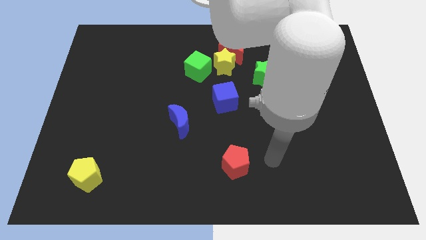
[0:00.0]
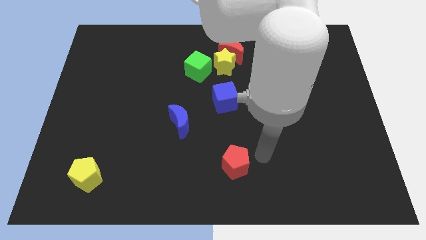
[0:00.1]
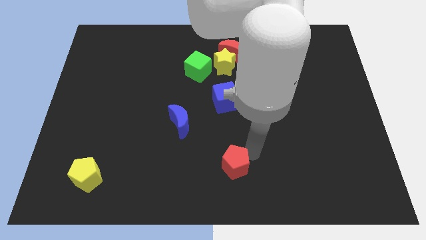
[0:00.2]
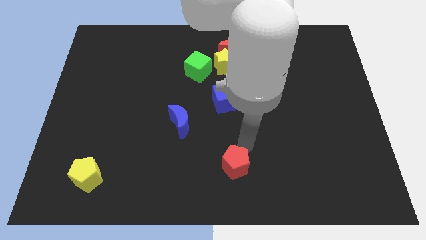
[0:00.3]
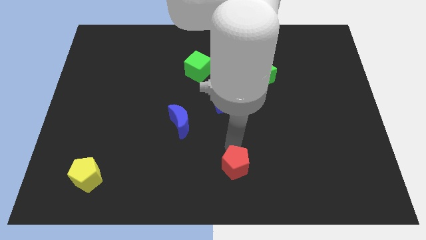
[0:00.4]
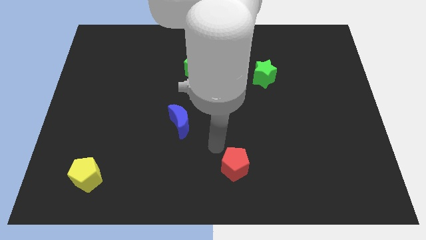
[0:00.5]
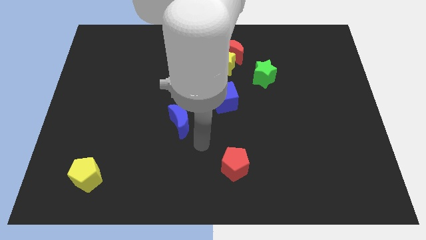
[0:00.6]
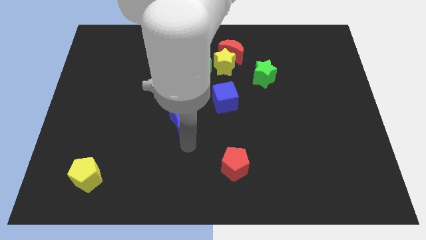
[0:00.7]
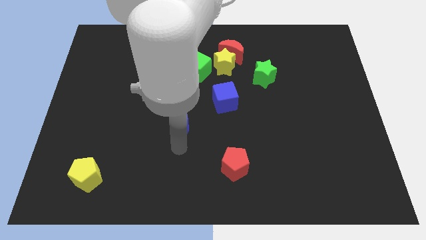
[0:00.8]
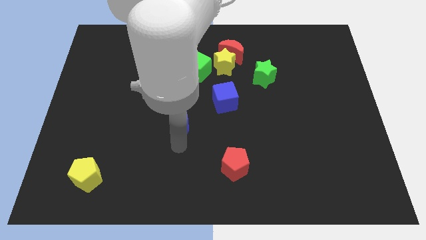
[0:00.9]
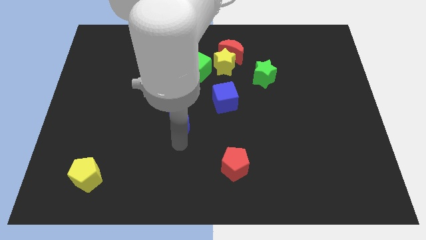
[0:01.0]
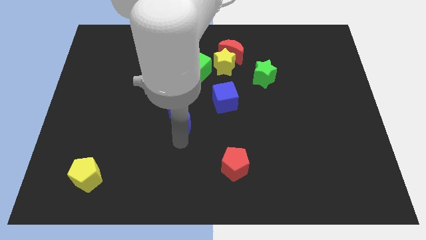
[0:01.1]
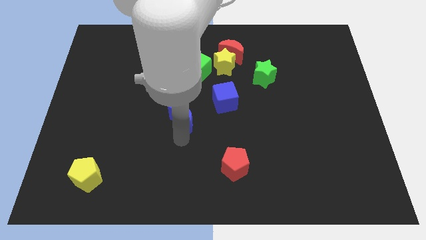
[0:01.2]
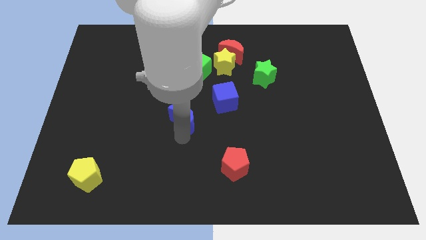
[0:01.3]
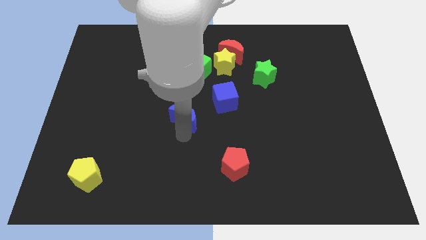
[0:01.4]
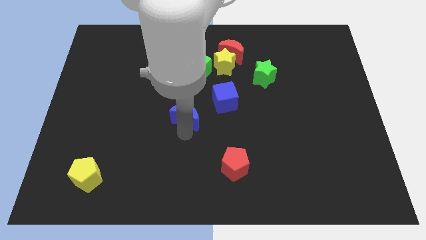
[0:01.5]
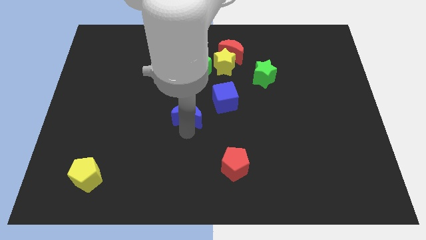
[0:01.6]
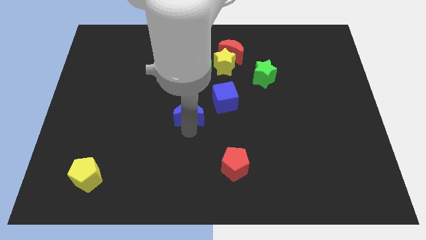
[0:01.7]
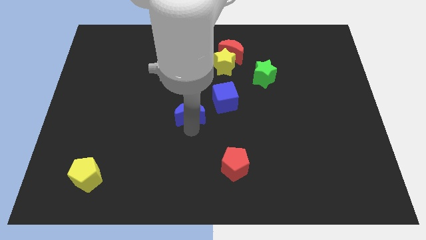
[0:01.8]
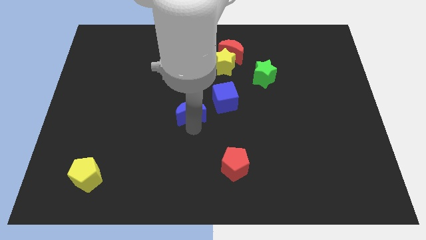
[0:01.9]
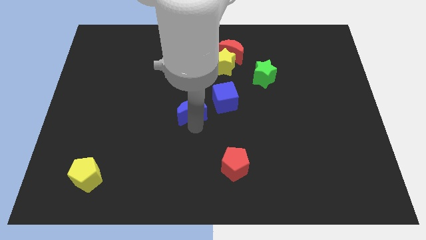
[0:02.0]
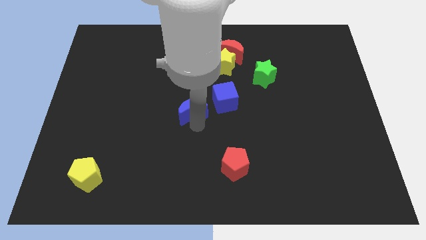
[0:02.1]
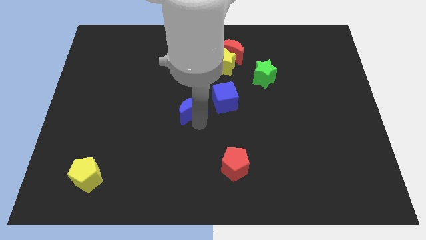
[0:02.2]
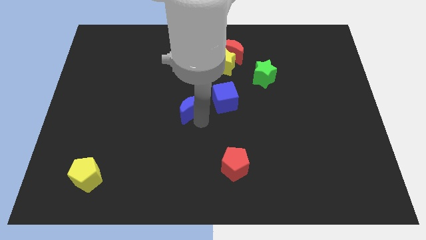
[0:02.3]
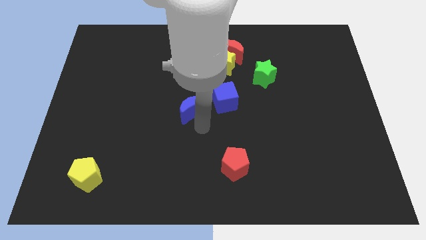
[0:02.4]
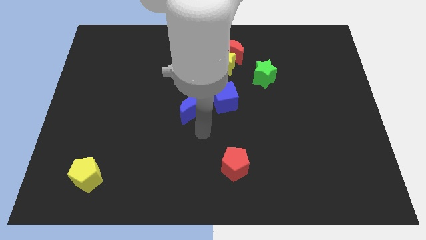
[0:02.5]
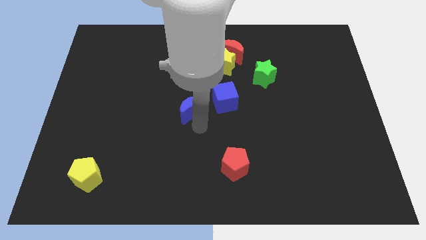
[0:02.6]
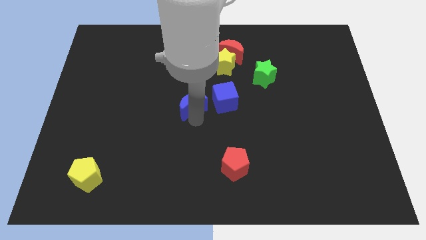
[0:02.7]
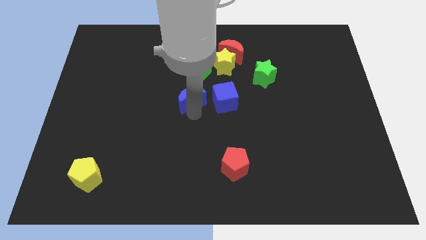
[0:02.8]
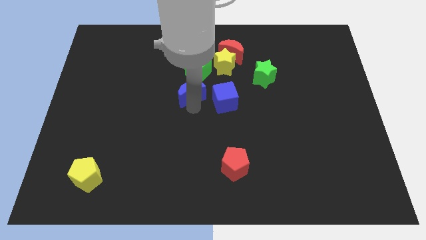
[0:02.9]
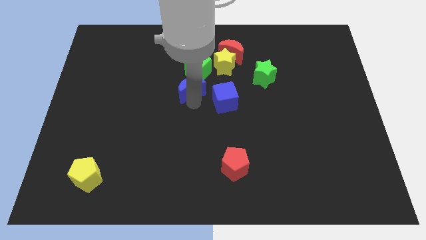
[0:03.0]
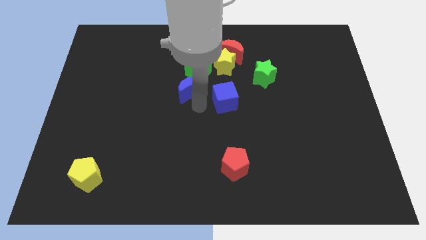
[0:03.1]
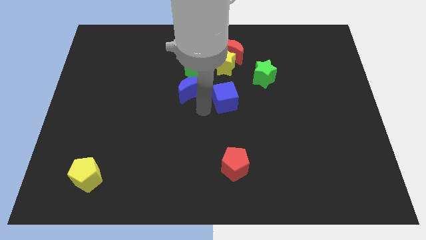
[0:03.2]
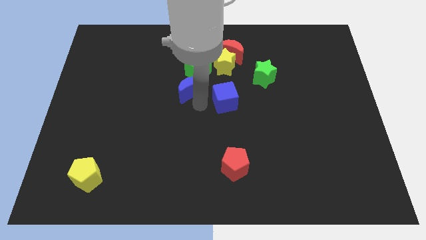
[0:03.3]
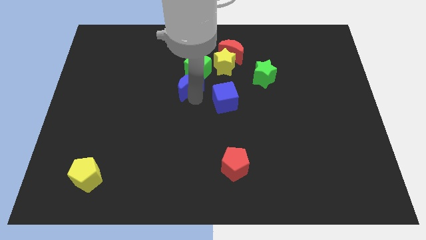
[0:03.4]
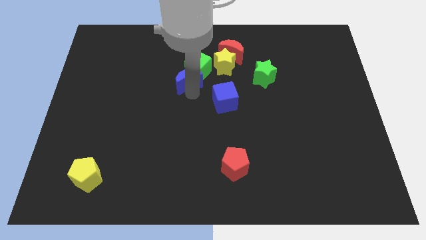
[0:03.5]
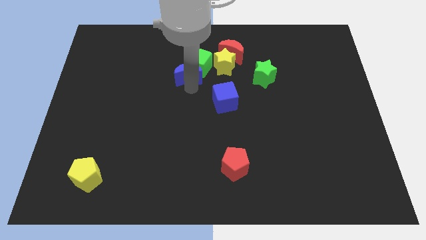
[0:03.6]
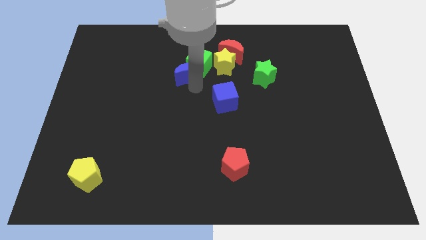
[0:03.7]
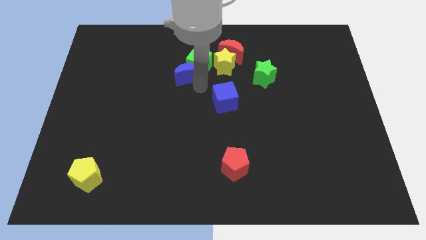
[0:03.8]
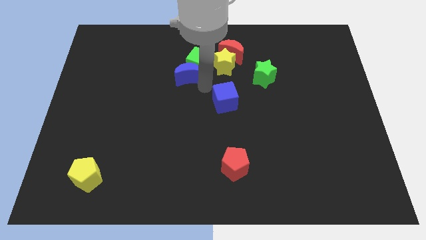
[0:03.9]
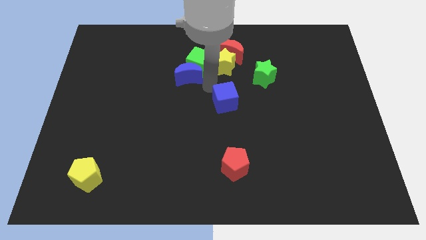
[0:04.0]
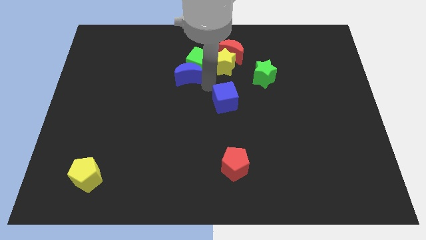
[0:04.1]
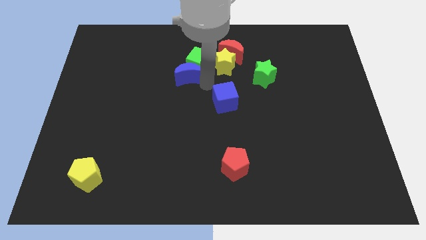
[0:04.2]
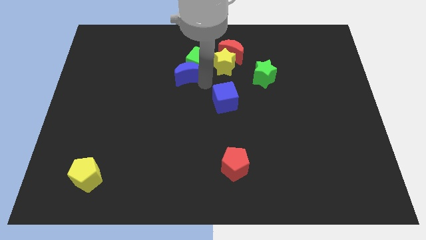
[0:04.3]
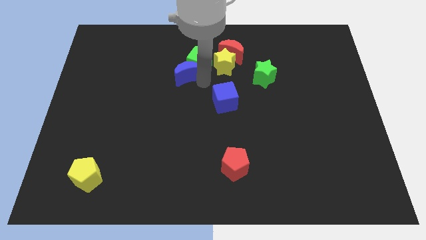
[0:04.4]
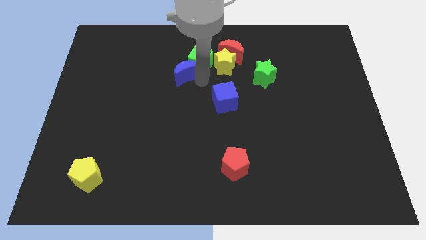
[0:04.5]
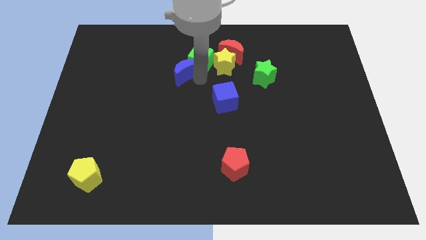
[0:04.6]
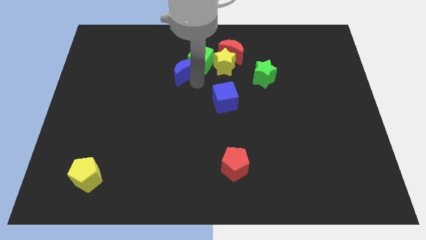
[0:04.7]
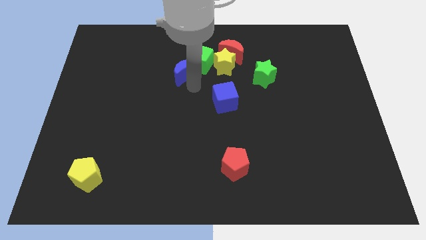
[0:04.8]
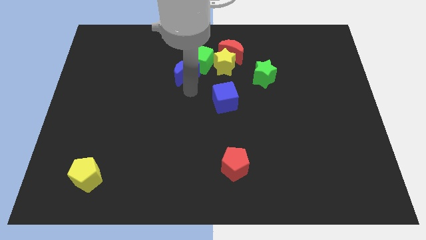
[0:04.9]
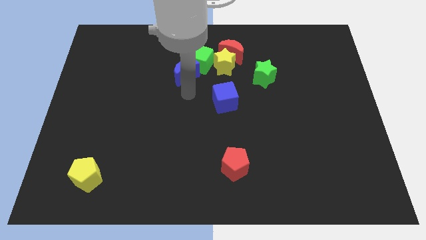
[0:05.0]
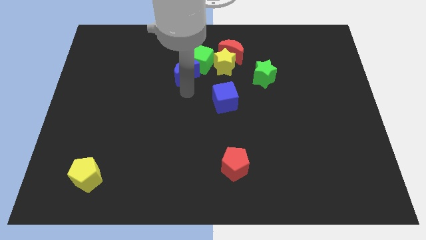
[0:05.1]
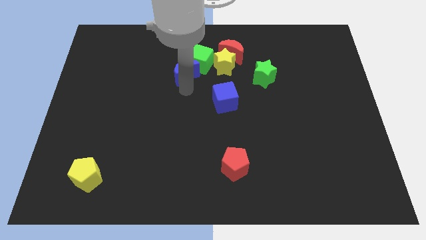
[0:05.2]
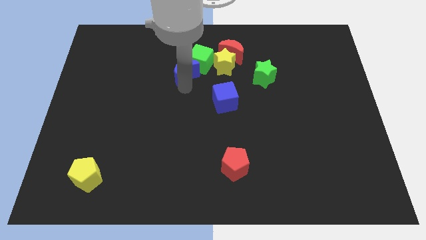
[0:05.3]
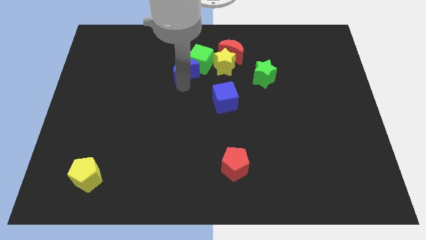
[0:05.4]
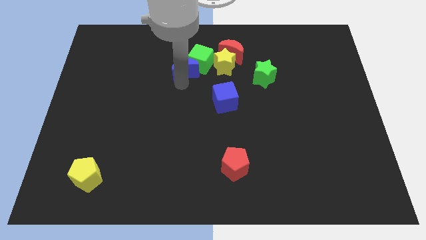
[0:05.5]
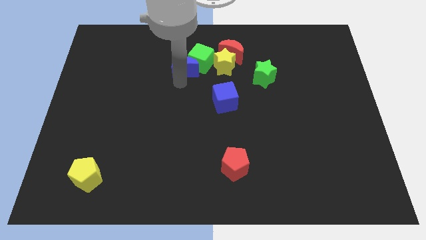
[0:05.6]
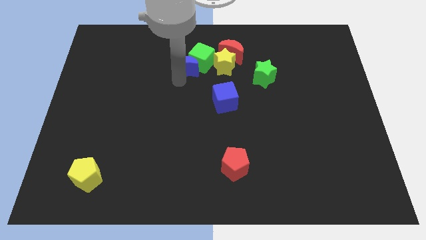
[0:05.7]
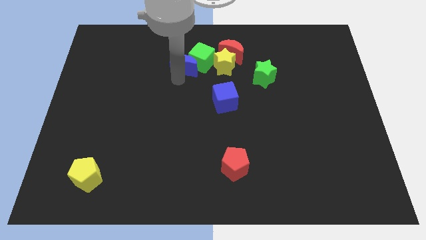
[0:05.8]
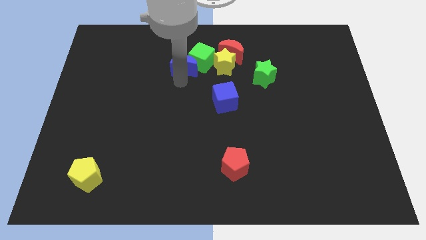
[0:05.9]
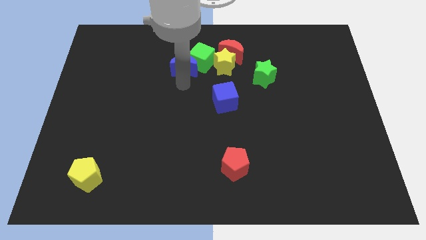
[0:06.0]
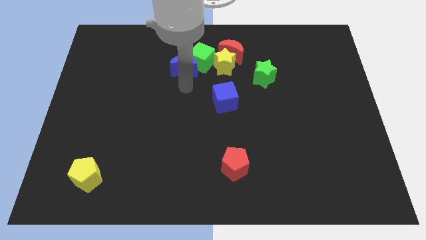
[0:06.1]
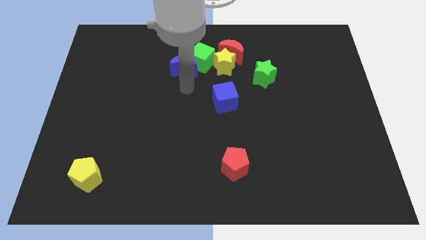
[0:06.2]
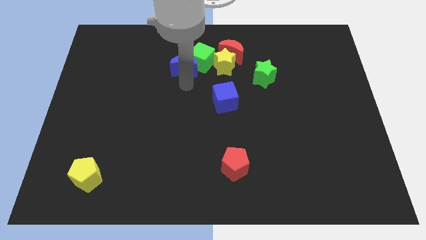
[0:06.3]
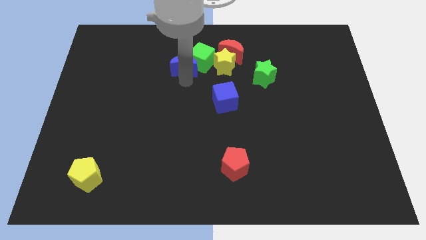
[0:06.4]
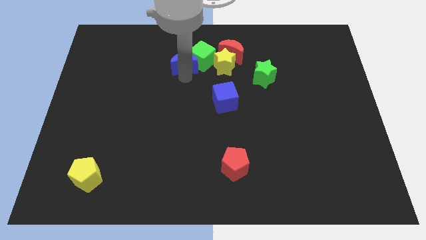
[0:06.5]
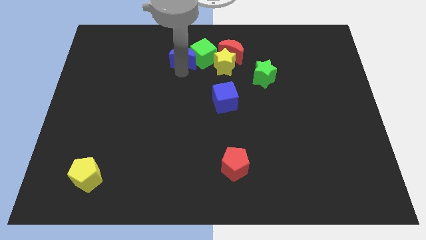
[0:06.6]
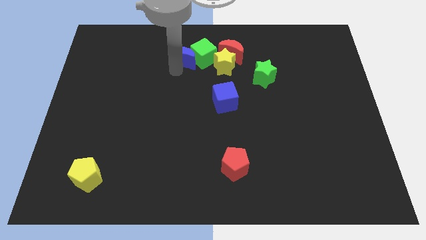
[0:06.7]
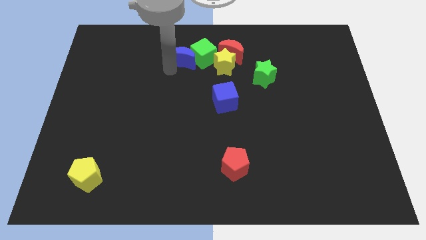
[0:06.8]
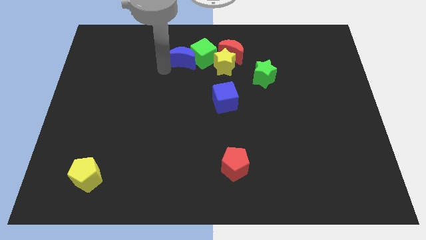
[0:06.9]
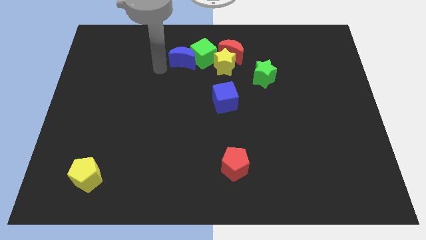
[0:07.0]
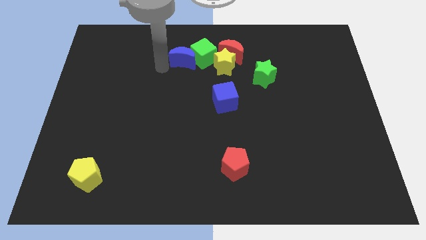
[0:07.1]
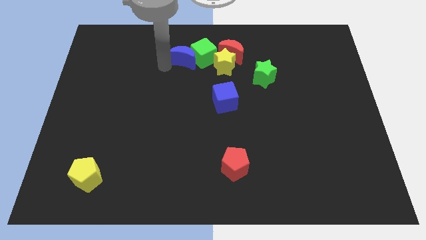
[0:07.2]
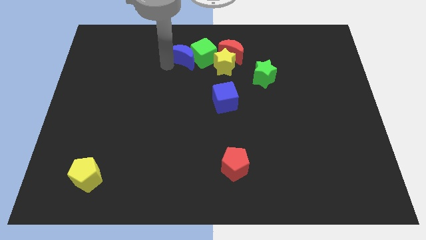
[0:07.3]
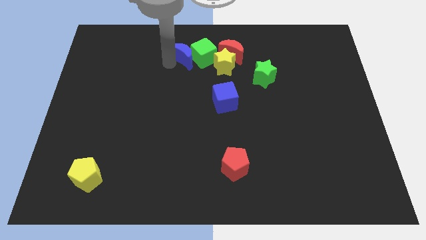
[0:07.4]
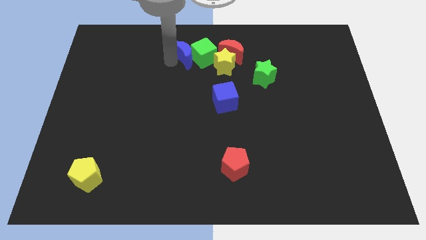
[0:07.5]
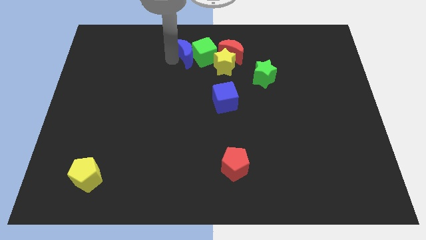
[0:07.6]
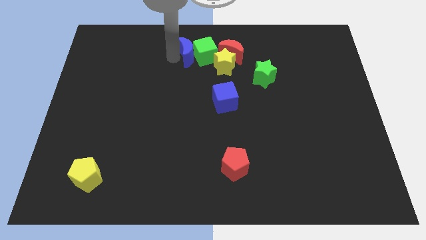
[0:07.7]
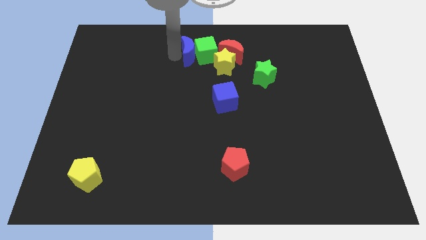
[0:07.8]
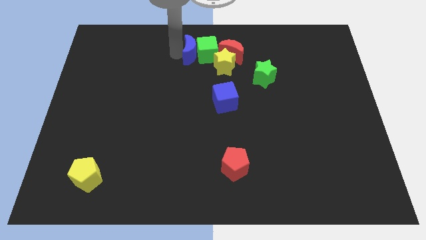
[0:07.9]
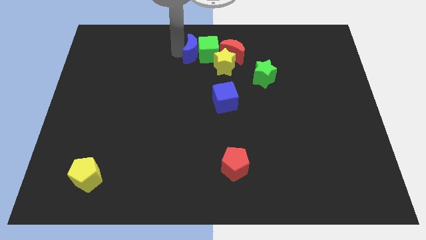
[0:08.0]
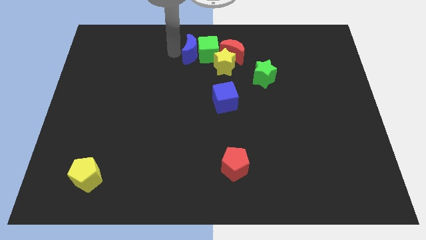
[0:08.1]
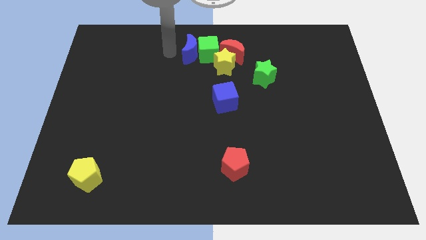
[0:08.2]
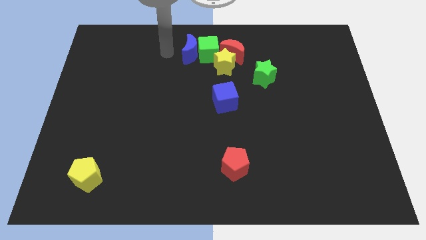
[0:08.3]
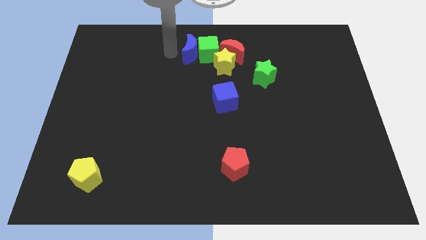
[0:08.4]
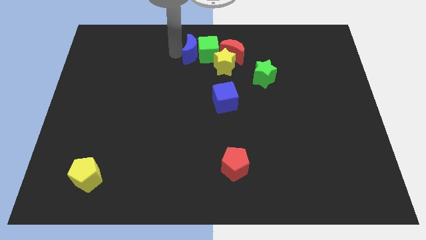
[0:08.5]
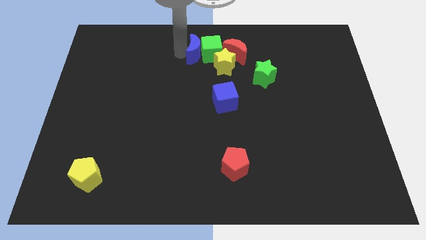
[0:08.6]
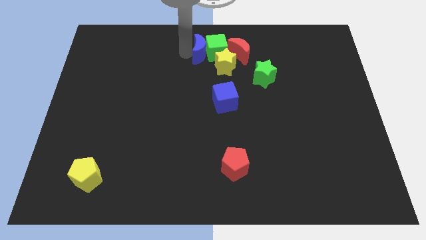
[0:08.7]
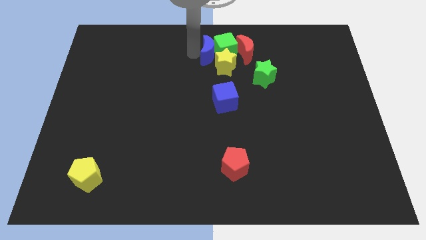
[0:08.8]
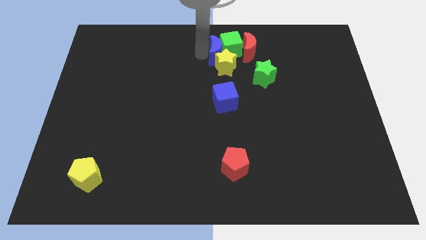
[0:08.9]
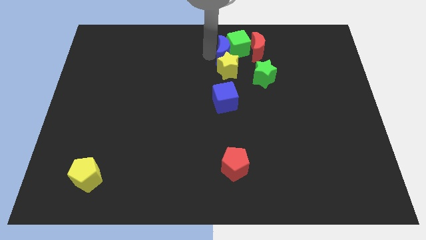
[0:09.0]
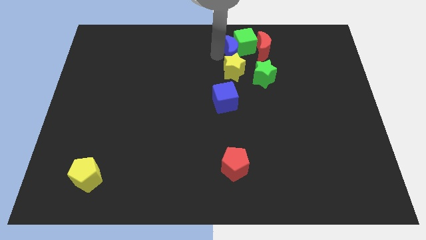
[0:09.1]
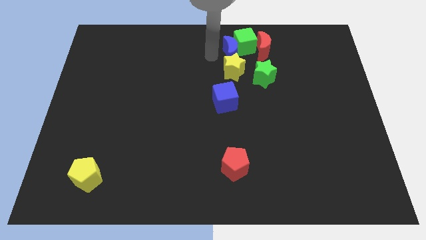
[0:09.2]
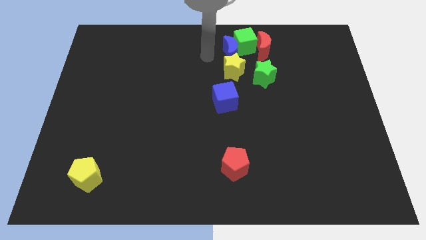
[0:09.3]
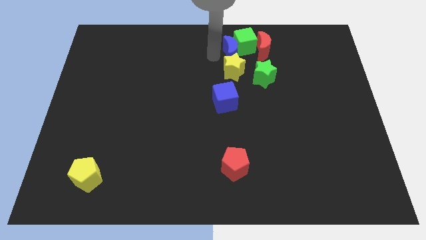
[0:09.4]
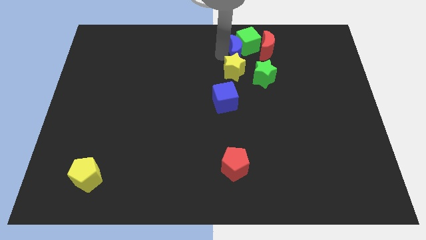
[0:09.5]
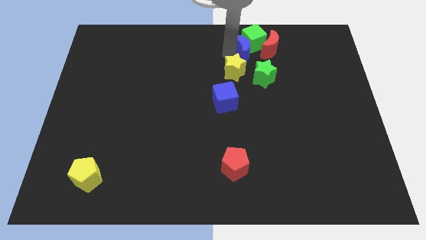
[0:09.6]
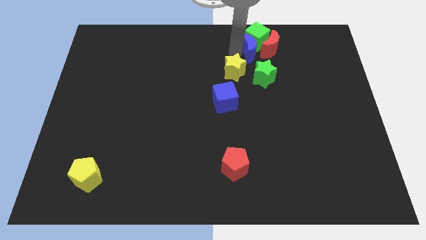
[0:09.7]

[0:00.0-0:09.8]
move the blue moon close to the red moon
